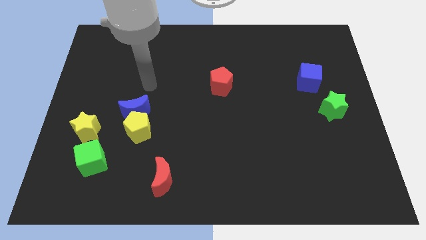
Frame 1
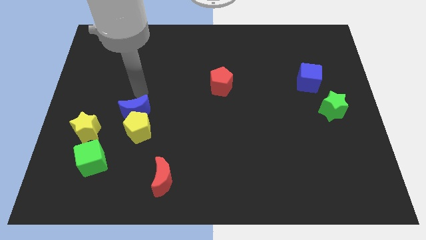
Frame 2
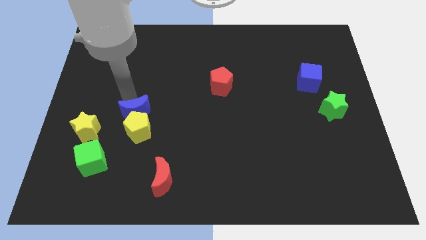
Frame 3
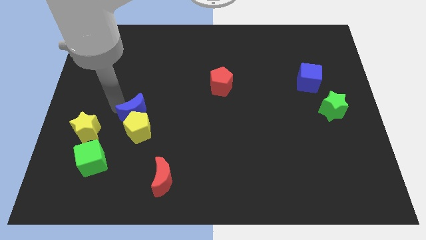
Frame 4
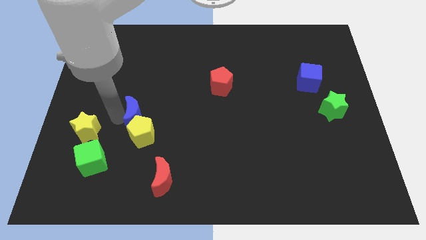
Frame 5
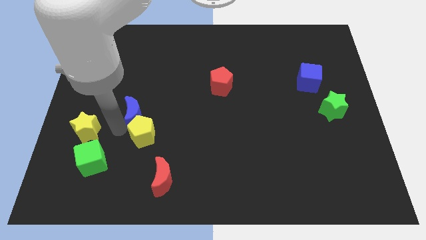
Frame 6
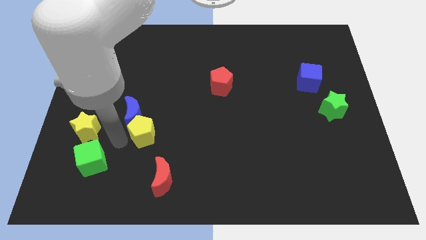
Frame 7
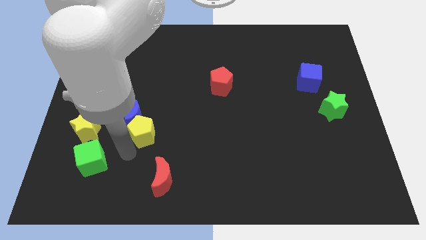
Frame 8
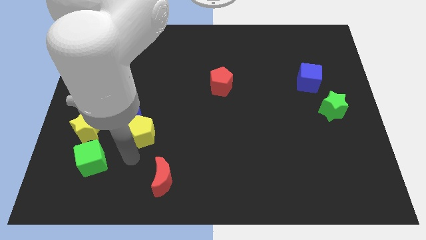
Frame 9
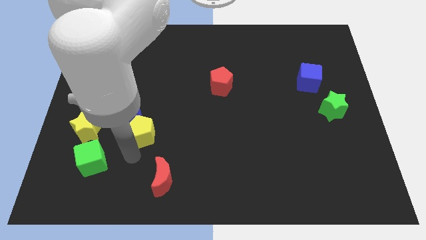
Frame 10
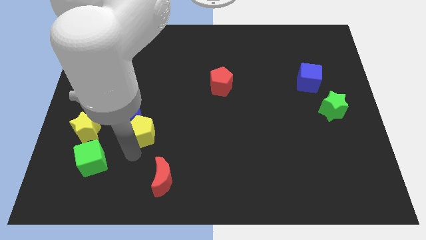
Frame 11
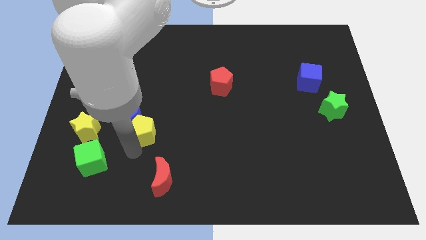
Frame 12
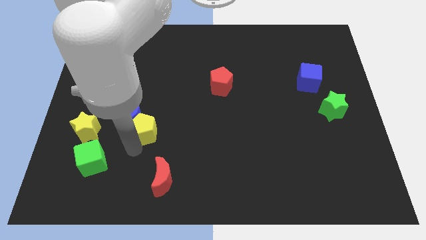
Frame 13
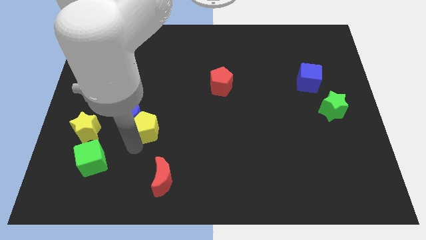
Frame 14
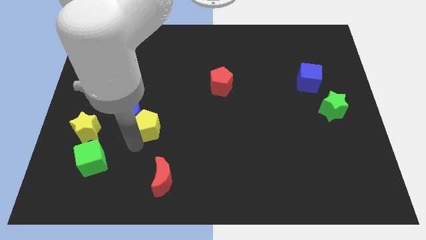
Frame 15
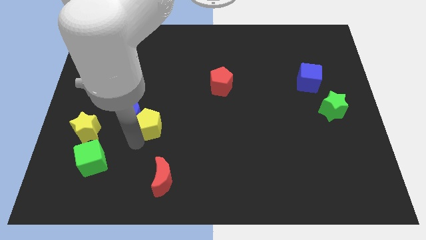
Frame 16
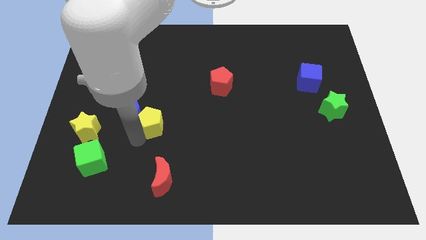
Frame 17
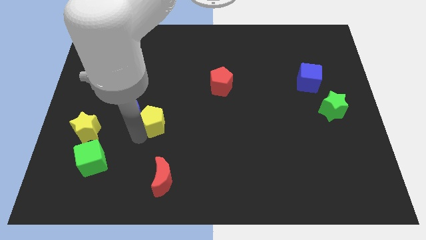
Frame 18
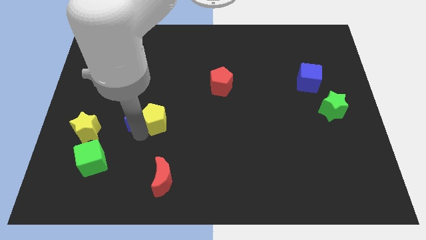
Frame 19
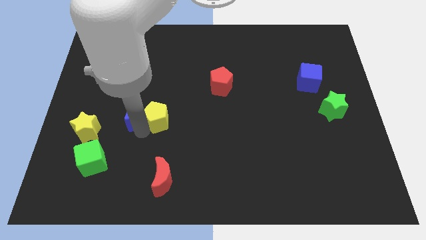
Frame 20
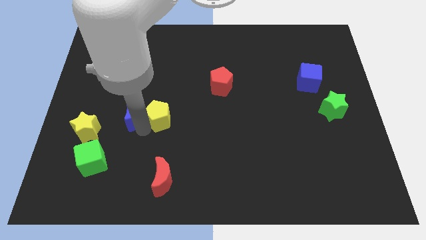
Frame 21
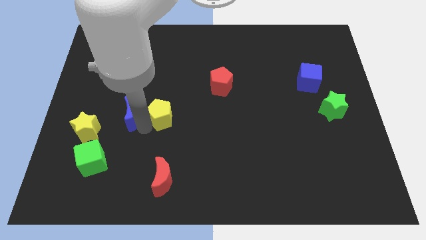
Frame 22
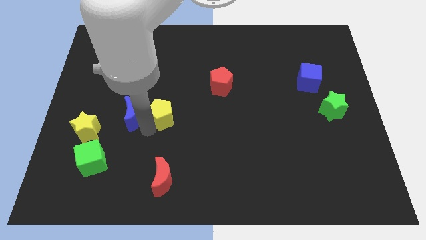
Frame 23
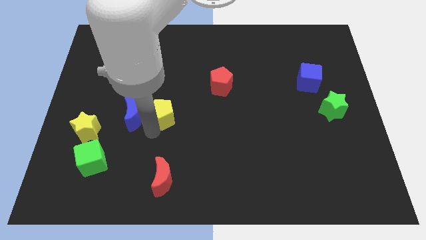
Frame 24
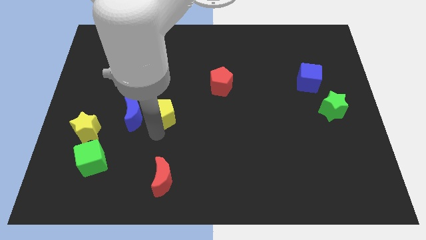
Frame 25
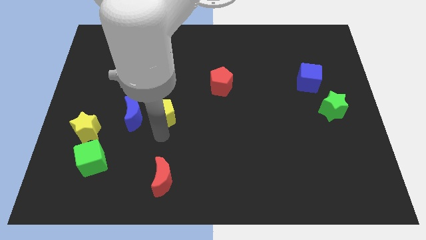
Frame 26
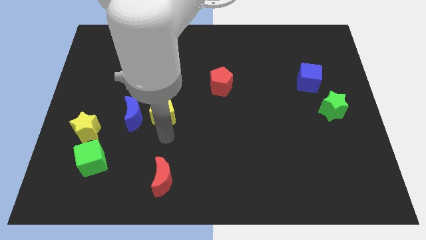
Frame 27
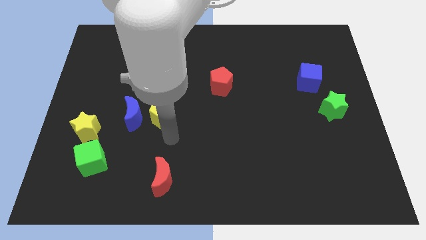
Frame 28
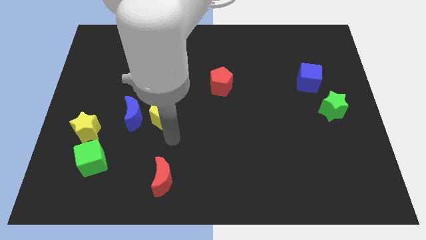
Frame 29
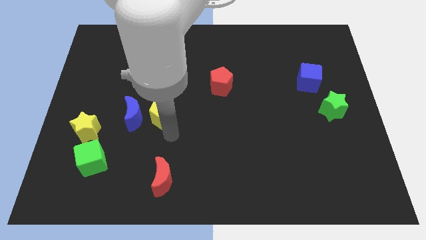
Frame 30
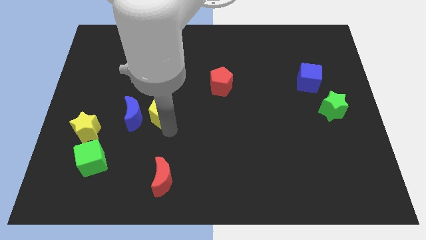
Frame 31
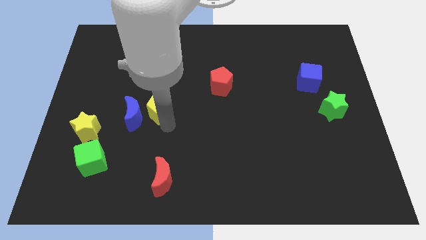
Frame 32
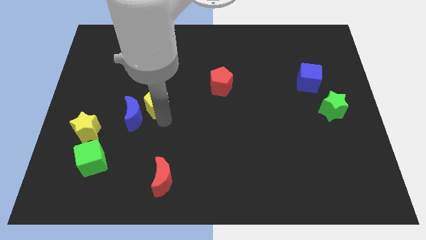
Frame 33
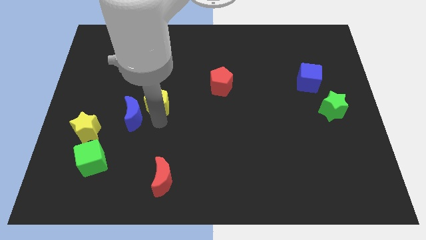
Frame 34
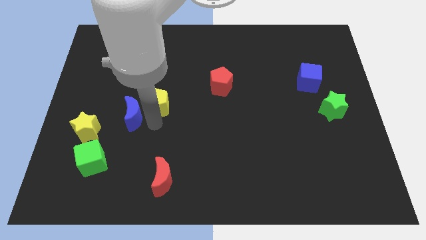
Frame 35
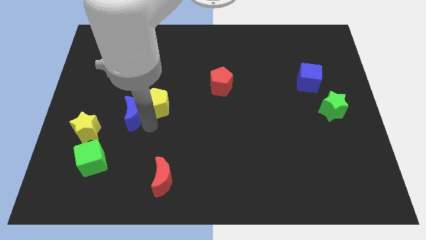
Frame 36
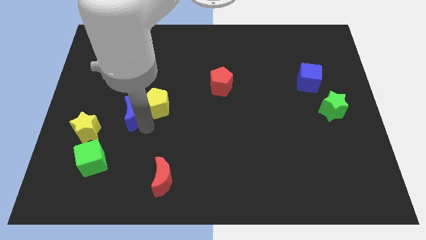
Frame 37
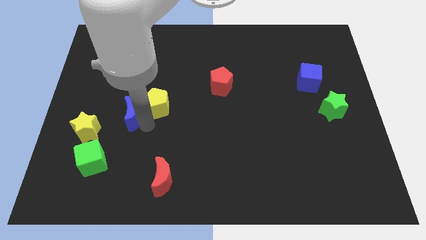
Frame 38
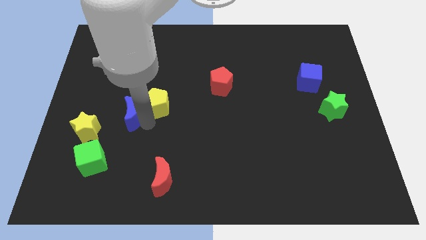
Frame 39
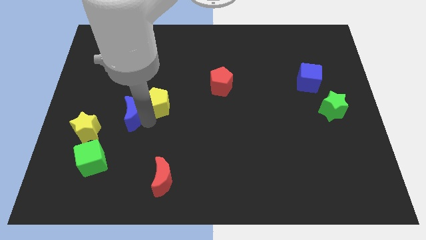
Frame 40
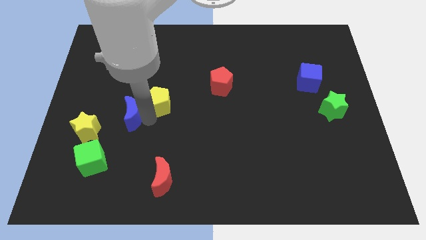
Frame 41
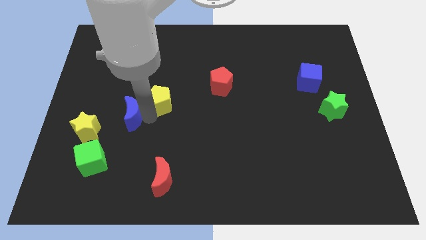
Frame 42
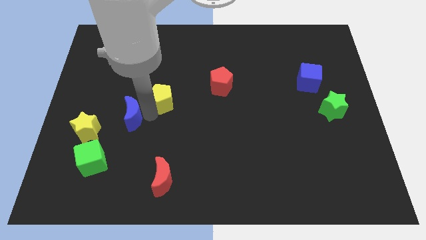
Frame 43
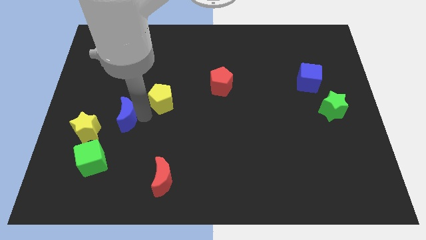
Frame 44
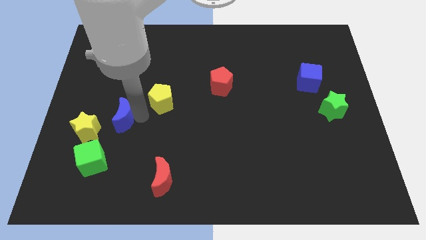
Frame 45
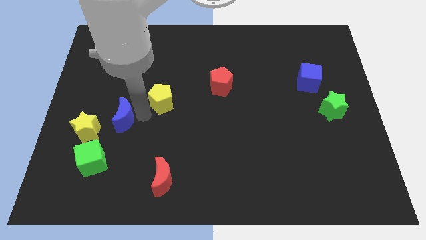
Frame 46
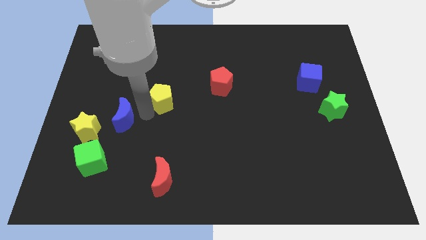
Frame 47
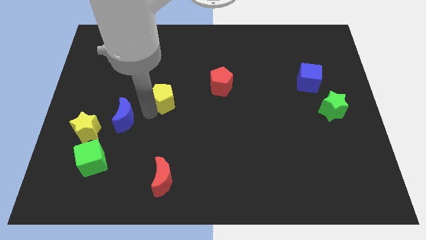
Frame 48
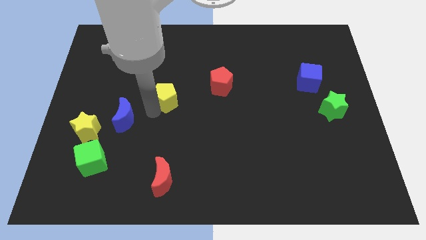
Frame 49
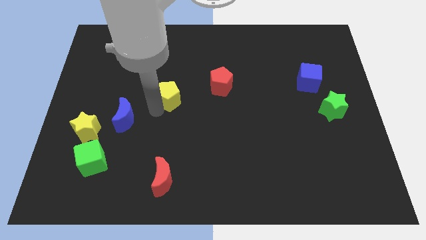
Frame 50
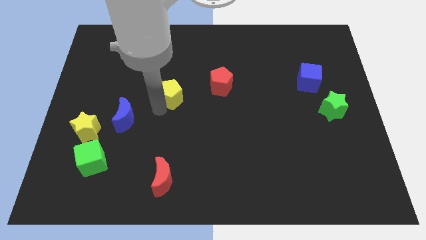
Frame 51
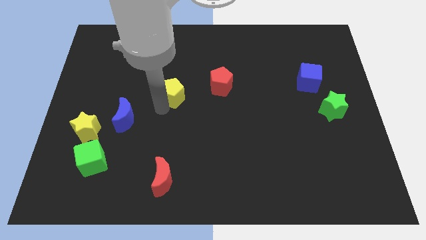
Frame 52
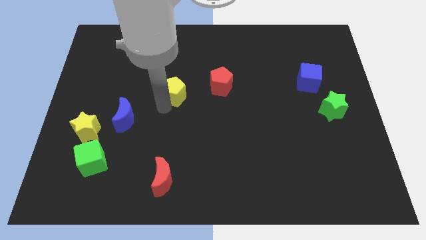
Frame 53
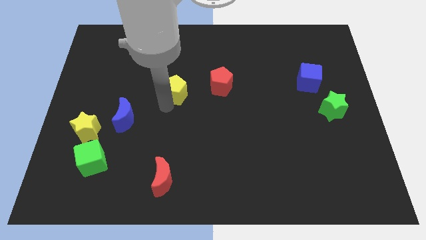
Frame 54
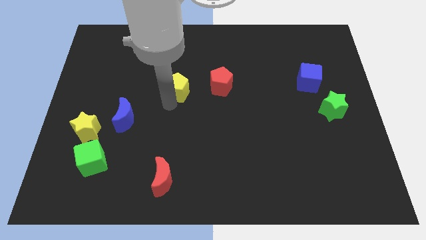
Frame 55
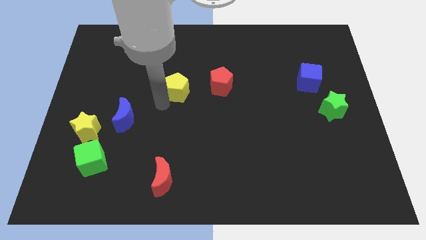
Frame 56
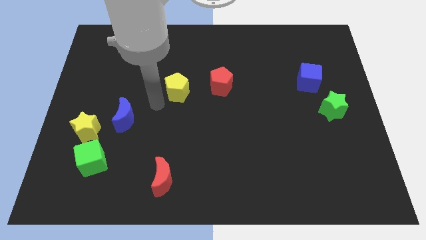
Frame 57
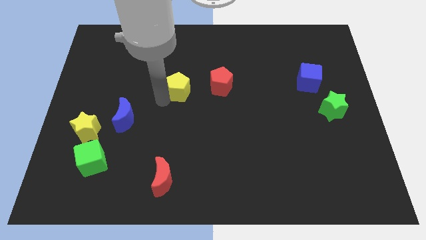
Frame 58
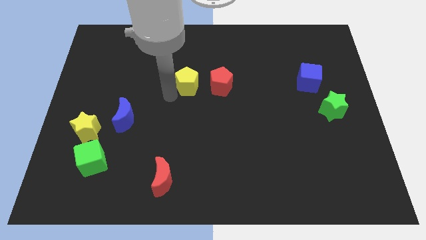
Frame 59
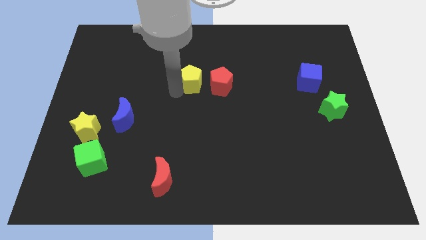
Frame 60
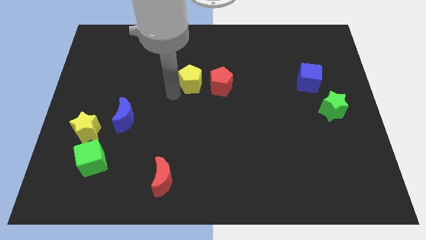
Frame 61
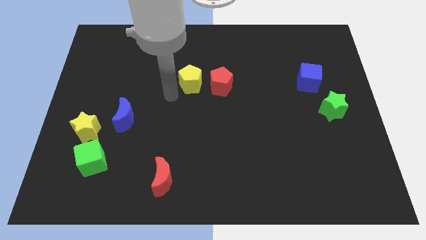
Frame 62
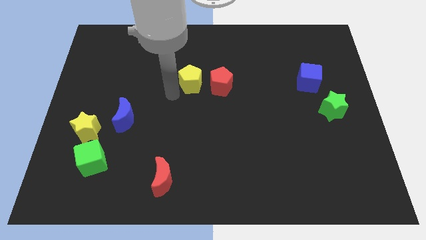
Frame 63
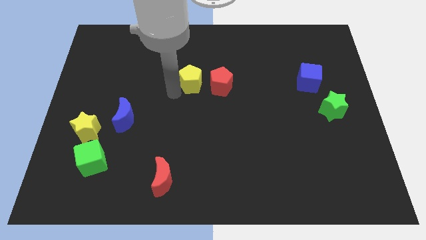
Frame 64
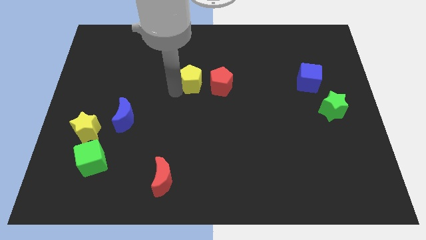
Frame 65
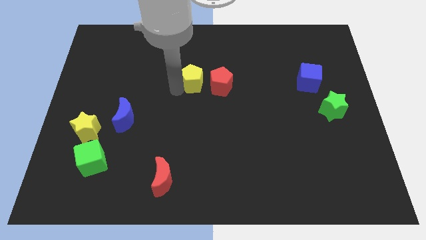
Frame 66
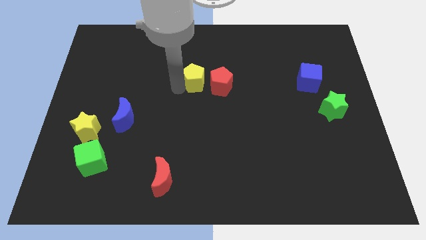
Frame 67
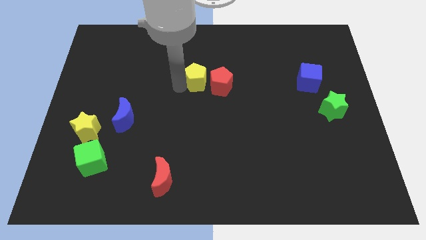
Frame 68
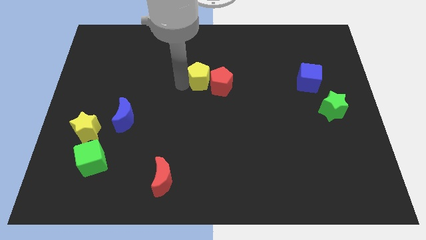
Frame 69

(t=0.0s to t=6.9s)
slide the yellow pentagon up and then right

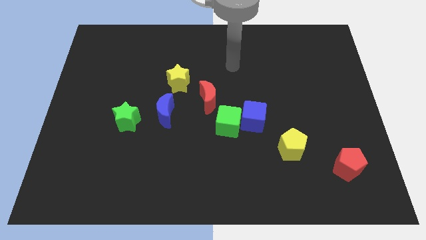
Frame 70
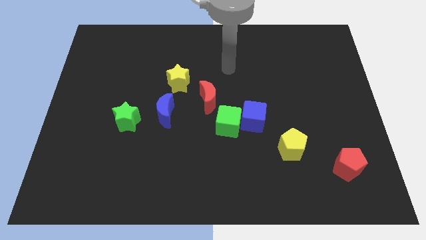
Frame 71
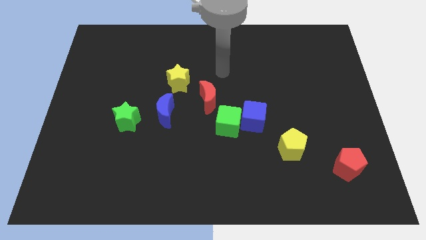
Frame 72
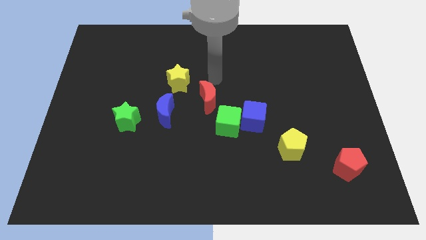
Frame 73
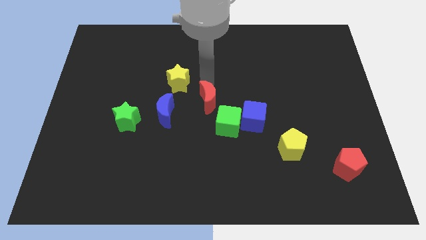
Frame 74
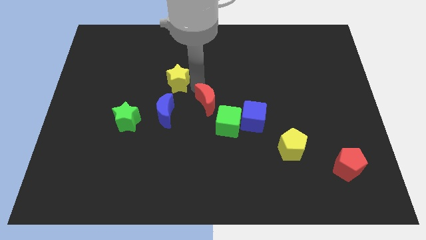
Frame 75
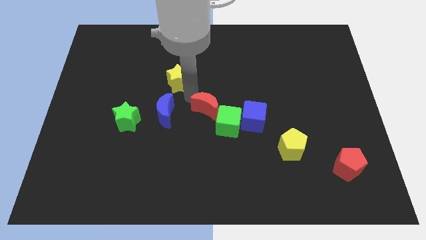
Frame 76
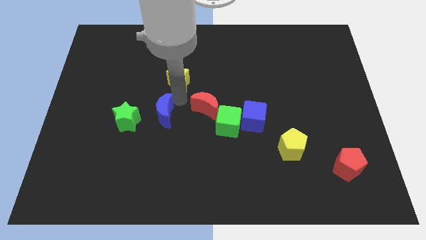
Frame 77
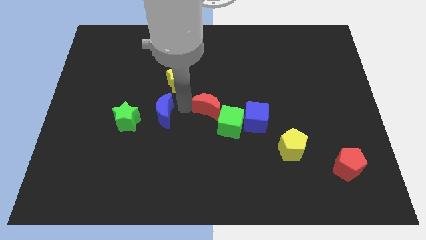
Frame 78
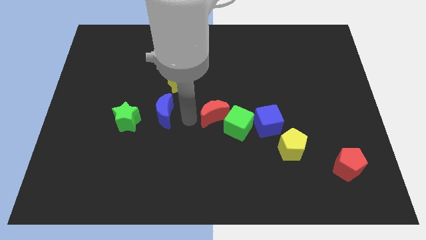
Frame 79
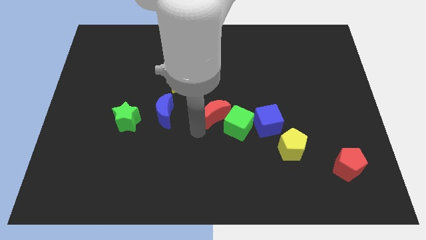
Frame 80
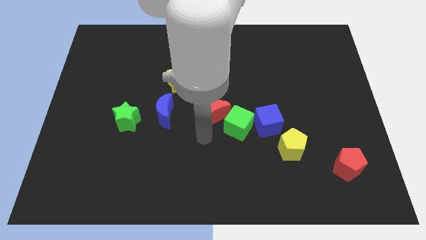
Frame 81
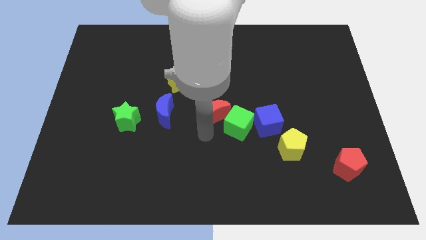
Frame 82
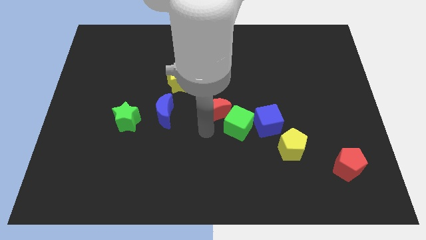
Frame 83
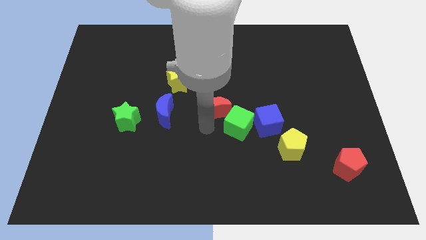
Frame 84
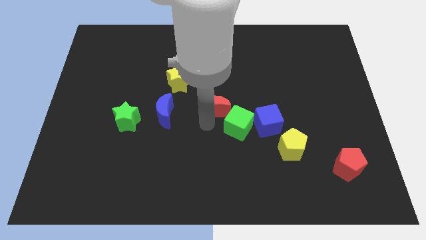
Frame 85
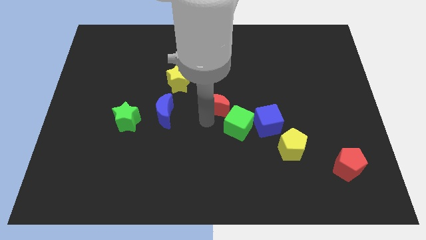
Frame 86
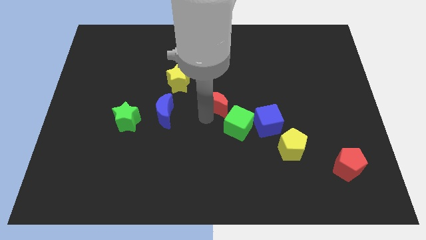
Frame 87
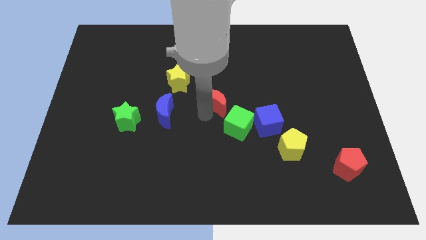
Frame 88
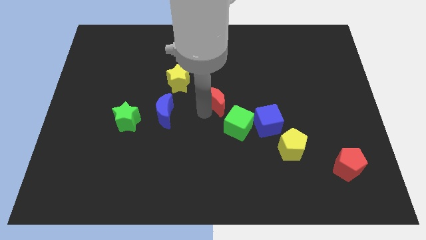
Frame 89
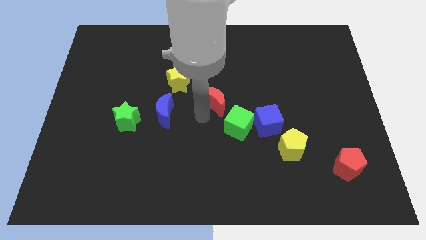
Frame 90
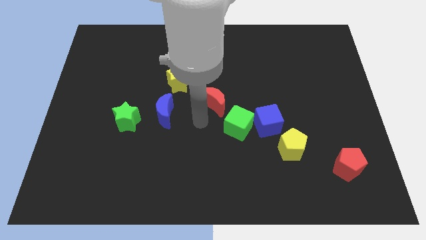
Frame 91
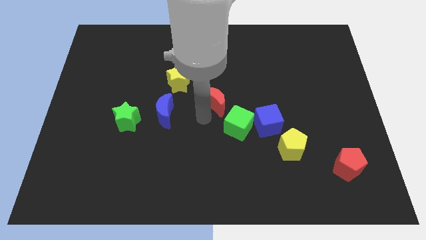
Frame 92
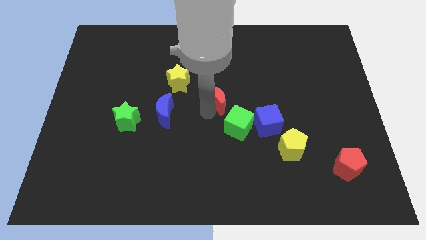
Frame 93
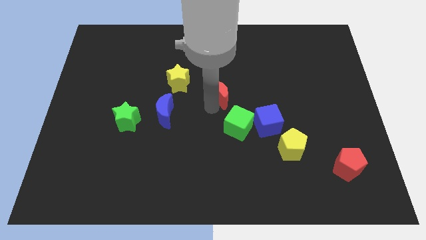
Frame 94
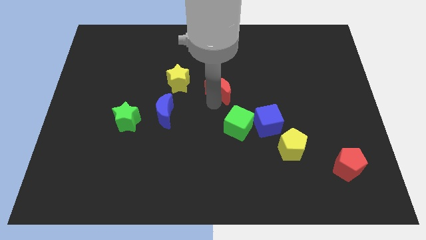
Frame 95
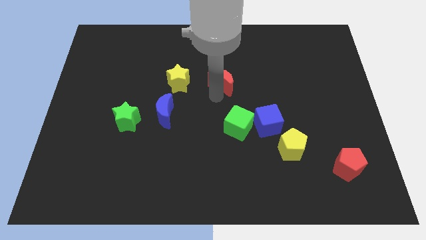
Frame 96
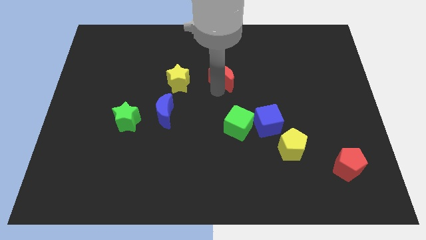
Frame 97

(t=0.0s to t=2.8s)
push the red moon a little bit up and right diagonally
